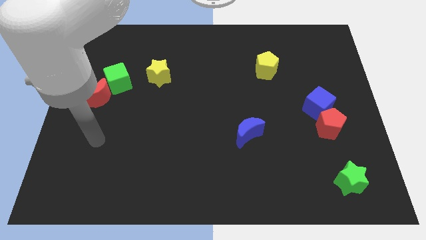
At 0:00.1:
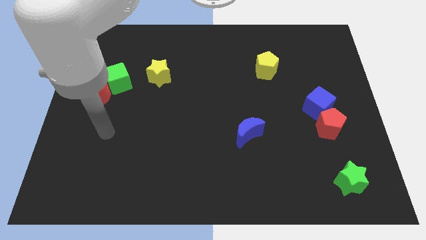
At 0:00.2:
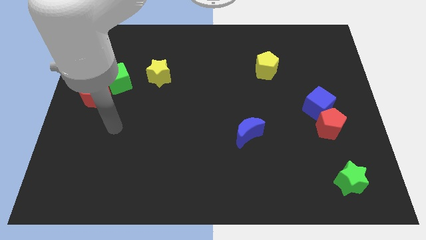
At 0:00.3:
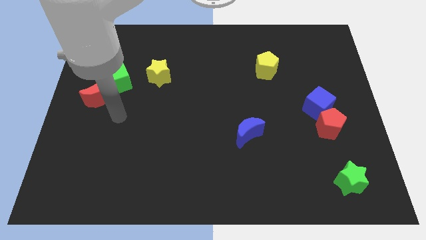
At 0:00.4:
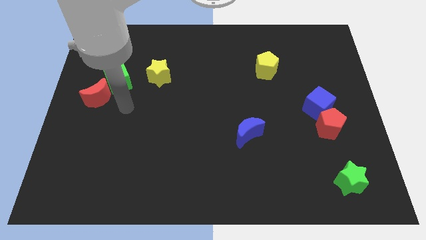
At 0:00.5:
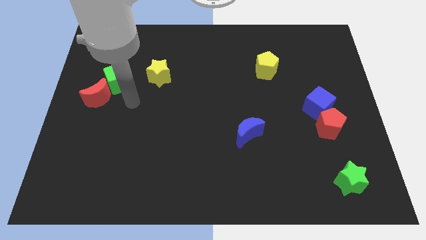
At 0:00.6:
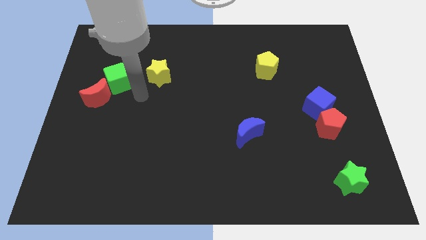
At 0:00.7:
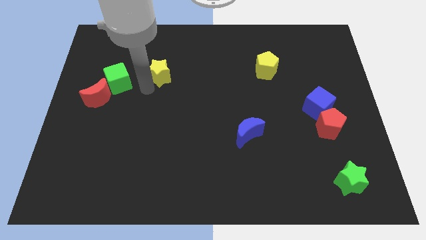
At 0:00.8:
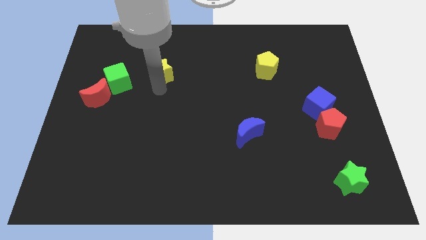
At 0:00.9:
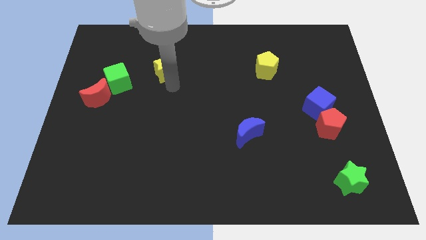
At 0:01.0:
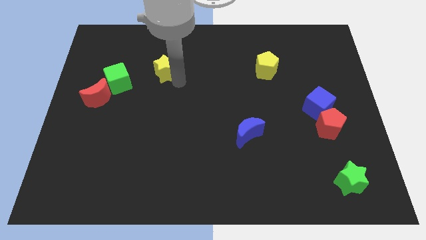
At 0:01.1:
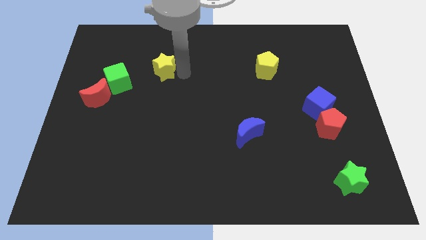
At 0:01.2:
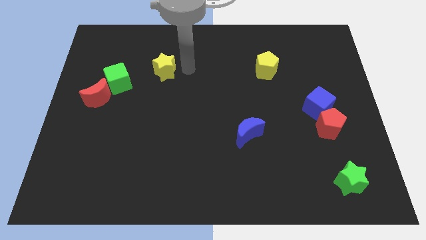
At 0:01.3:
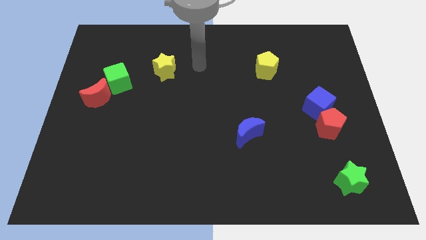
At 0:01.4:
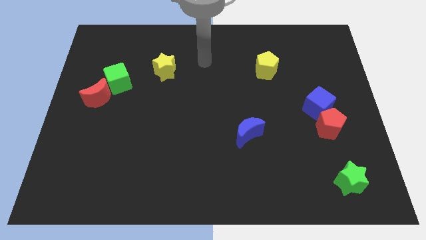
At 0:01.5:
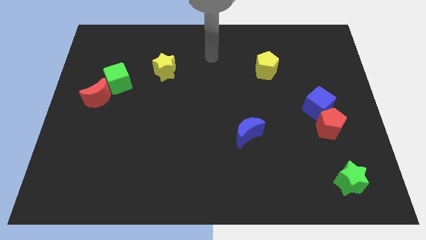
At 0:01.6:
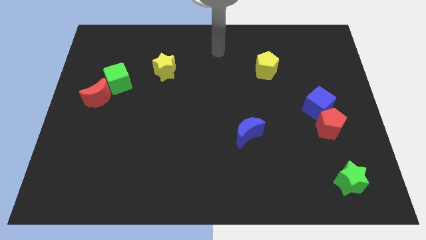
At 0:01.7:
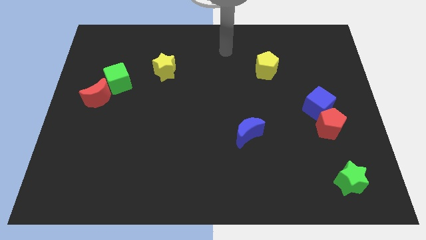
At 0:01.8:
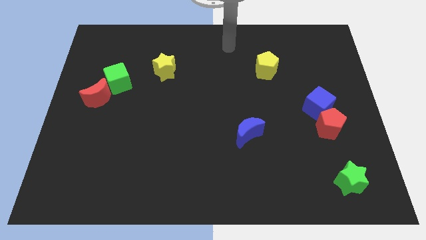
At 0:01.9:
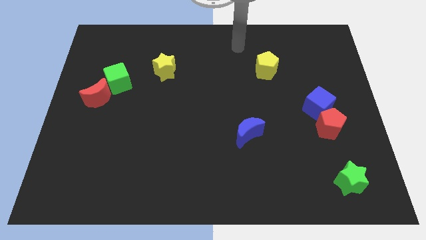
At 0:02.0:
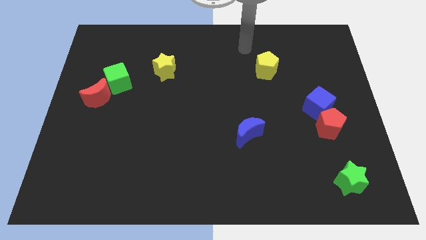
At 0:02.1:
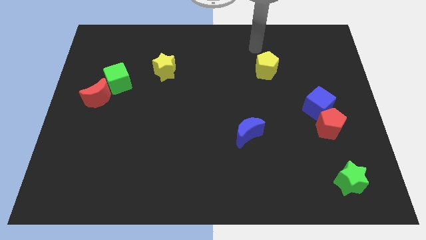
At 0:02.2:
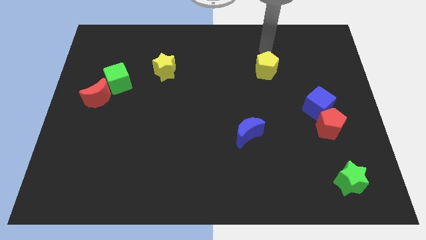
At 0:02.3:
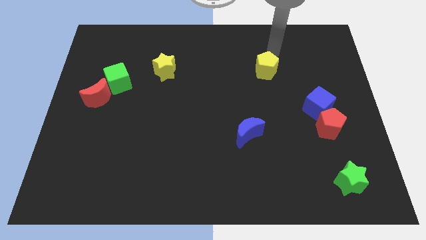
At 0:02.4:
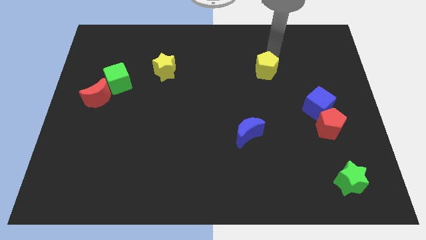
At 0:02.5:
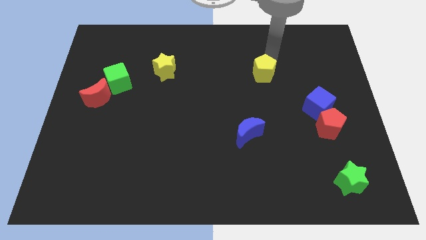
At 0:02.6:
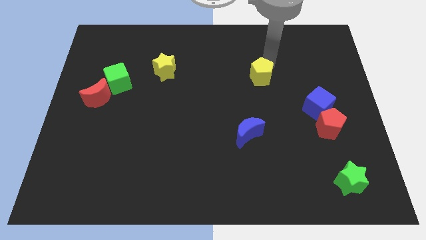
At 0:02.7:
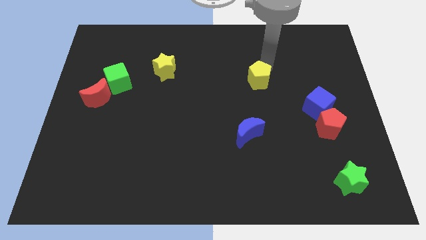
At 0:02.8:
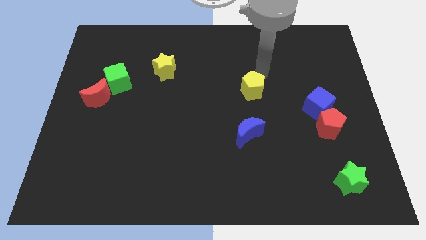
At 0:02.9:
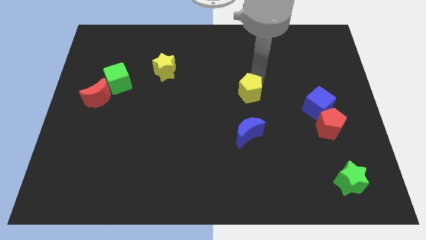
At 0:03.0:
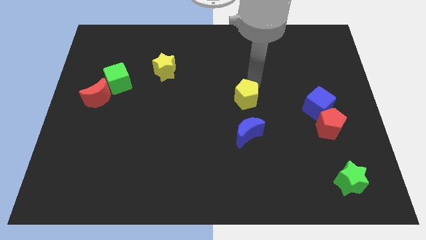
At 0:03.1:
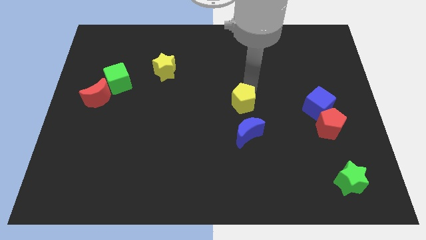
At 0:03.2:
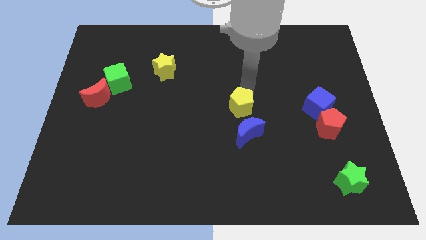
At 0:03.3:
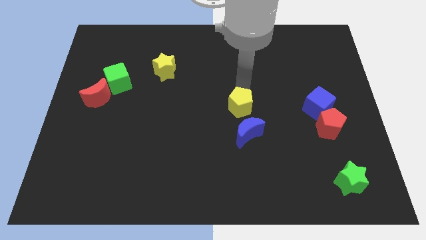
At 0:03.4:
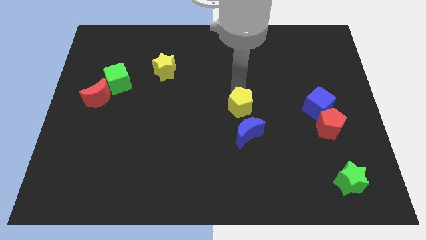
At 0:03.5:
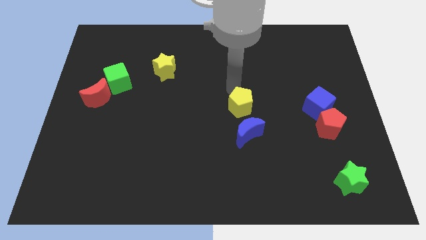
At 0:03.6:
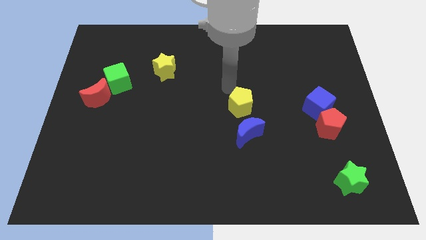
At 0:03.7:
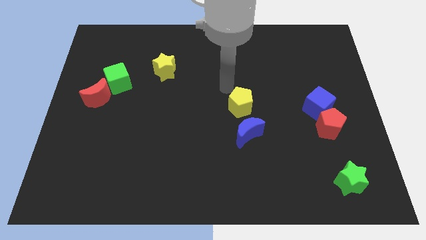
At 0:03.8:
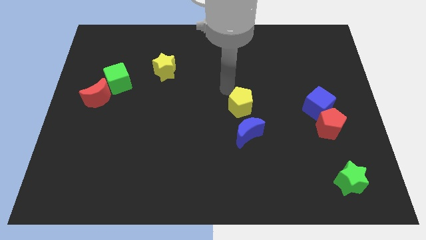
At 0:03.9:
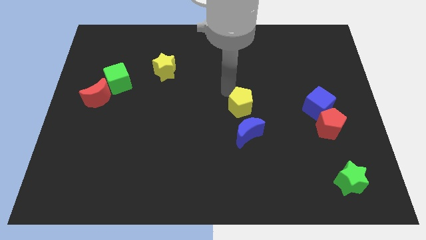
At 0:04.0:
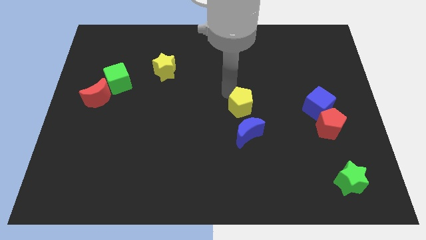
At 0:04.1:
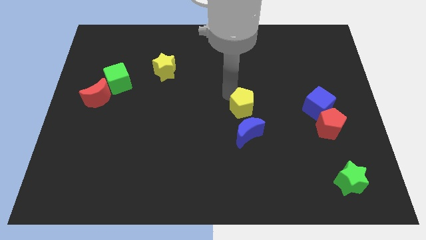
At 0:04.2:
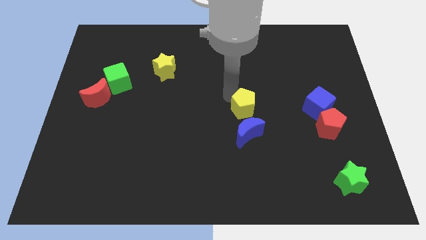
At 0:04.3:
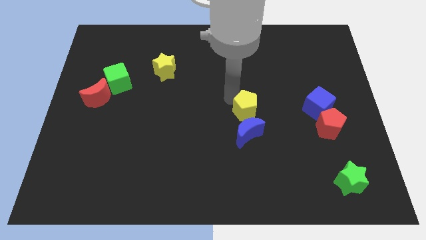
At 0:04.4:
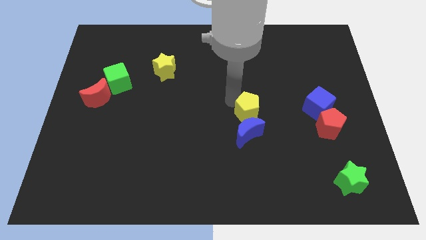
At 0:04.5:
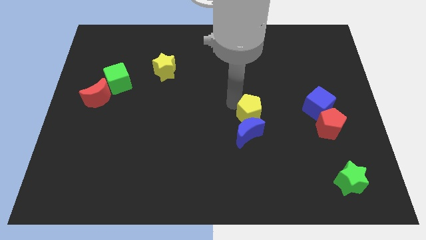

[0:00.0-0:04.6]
slide the yellow pentagon to the blue moon

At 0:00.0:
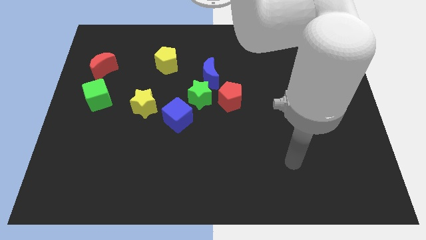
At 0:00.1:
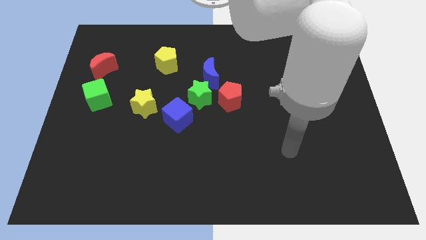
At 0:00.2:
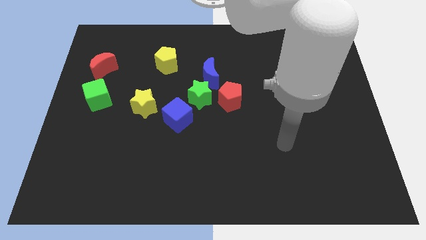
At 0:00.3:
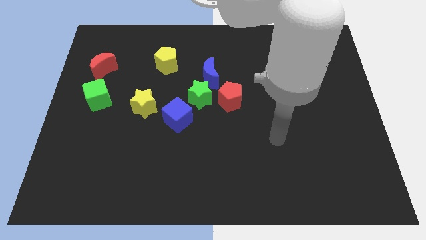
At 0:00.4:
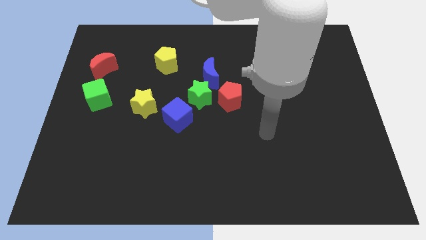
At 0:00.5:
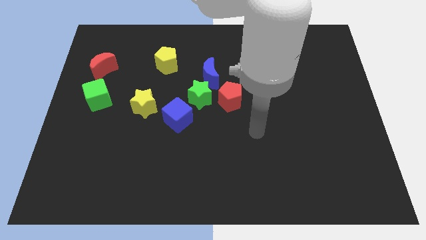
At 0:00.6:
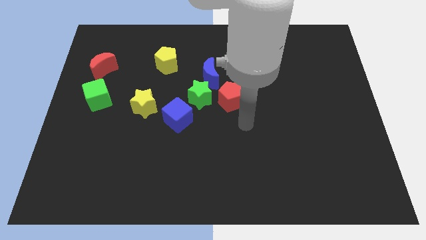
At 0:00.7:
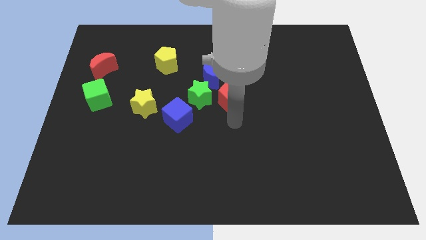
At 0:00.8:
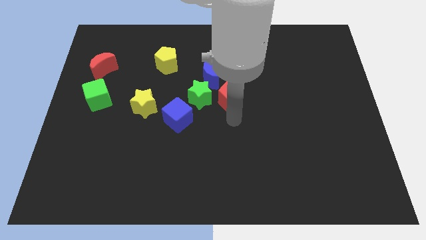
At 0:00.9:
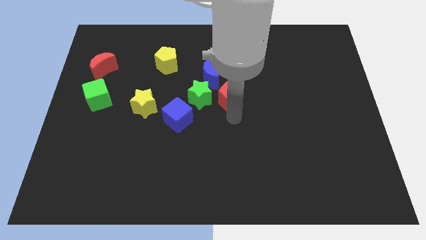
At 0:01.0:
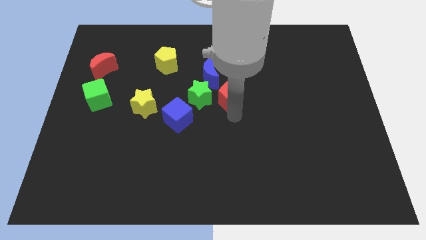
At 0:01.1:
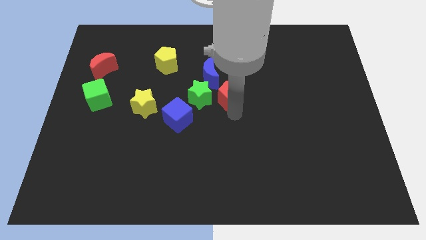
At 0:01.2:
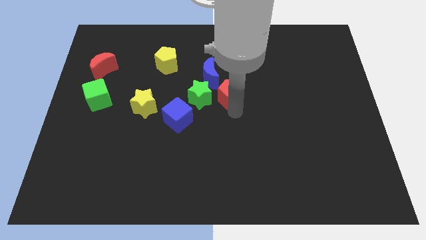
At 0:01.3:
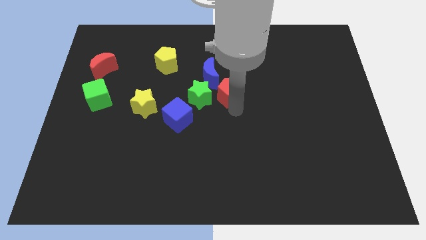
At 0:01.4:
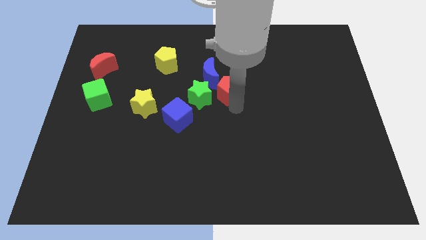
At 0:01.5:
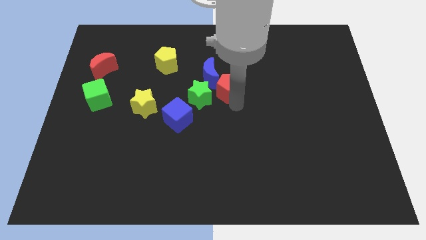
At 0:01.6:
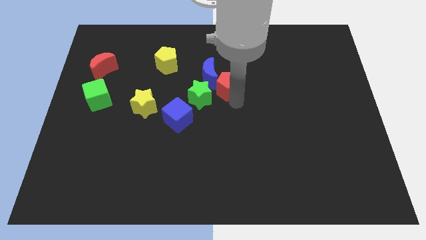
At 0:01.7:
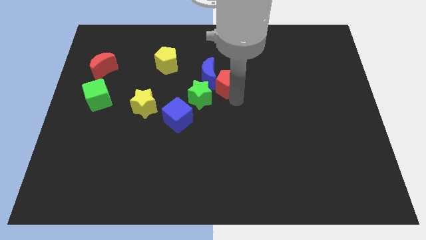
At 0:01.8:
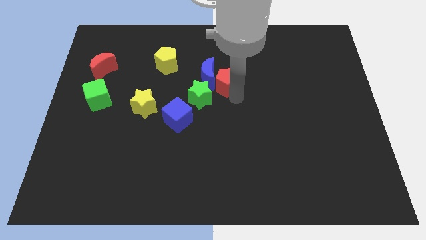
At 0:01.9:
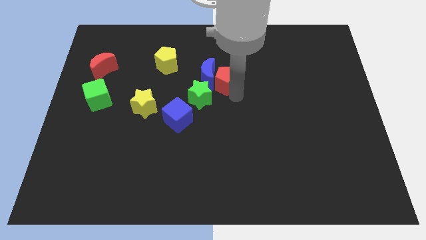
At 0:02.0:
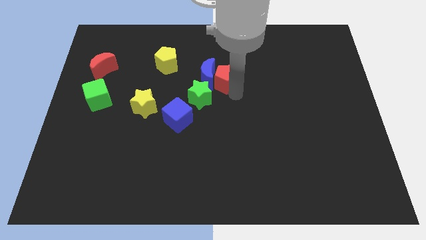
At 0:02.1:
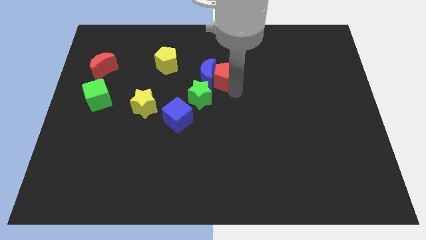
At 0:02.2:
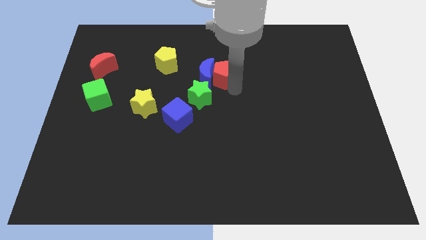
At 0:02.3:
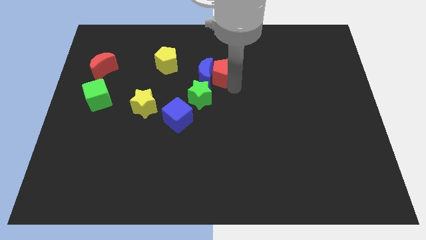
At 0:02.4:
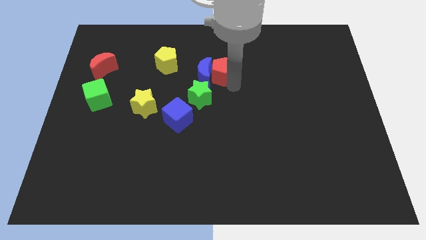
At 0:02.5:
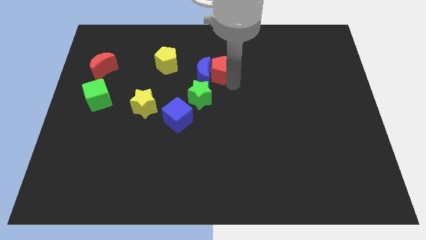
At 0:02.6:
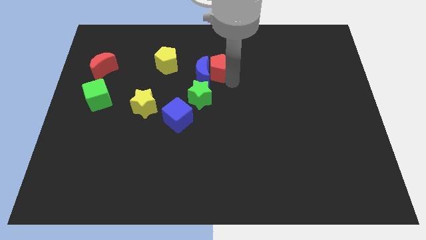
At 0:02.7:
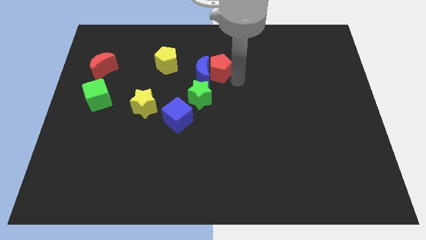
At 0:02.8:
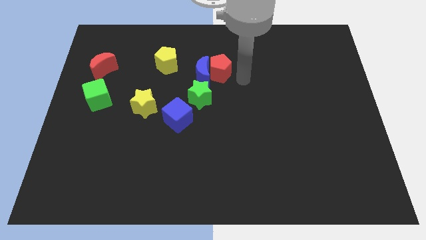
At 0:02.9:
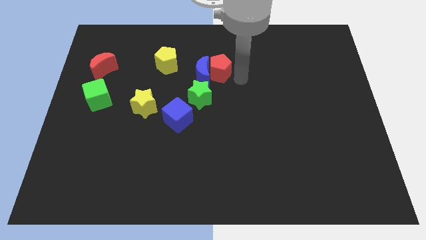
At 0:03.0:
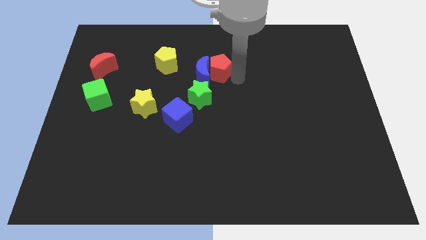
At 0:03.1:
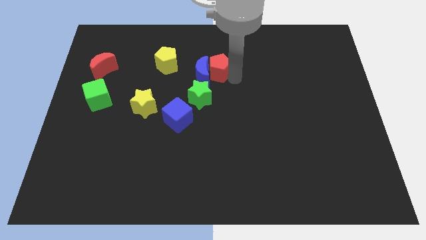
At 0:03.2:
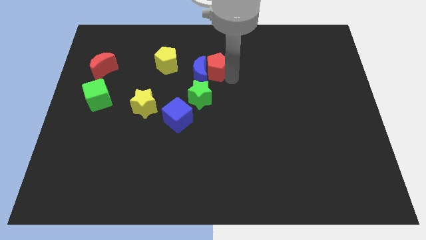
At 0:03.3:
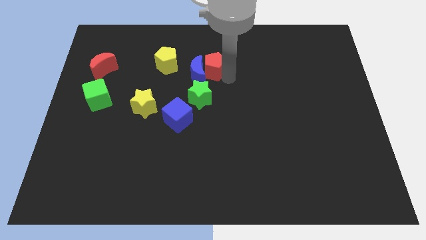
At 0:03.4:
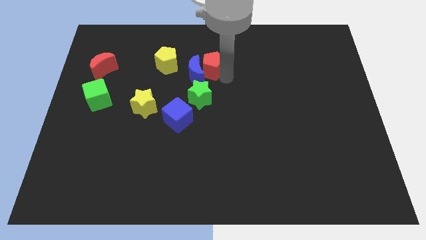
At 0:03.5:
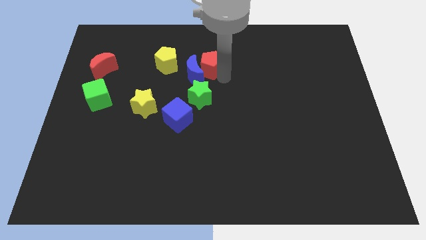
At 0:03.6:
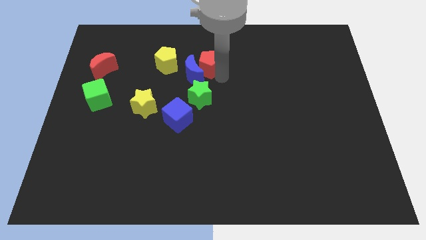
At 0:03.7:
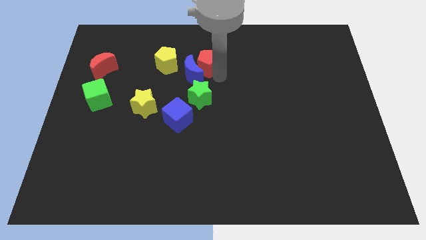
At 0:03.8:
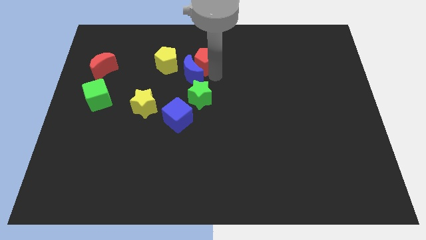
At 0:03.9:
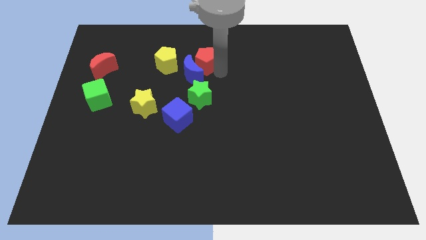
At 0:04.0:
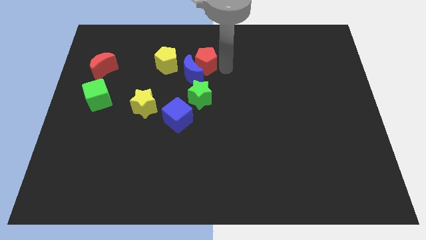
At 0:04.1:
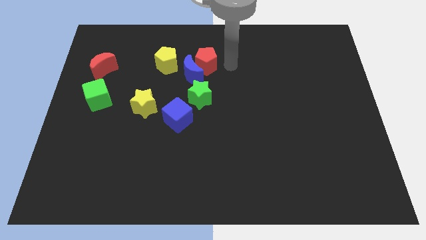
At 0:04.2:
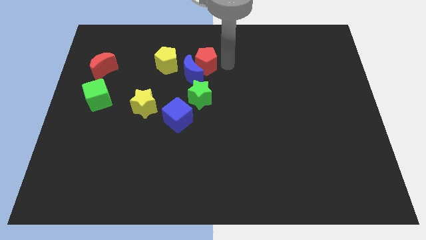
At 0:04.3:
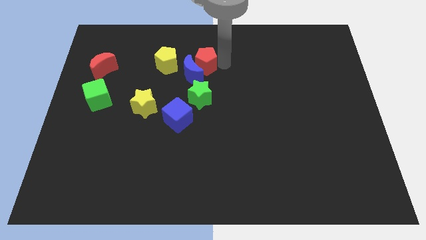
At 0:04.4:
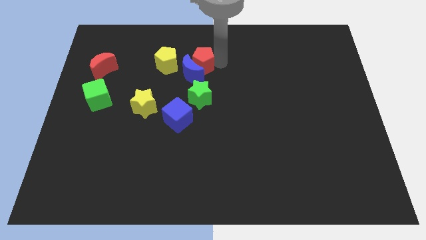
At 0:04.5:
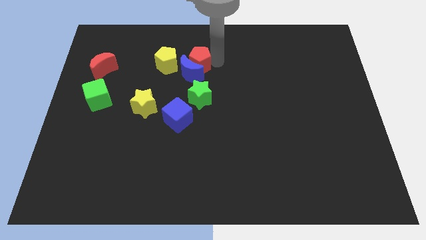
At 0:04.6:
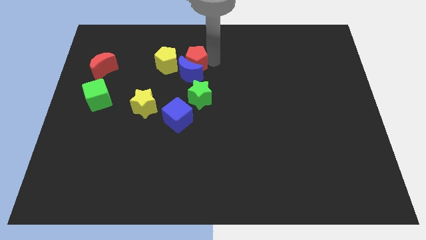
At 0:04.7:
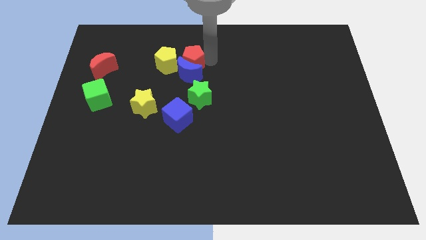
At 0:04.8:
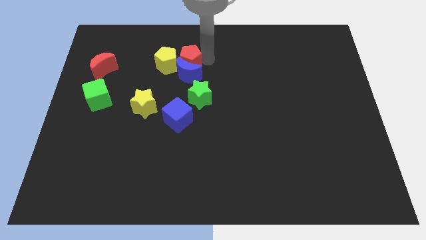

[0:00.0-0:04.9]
slide the red pentagon towards the yellow pentagon
